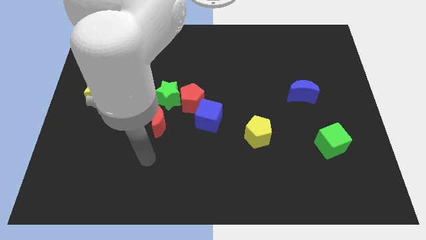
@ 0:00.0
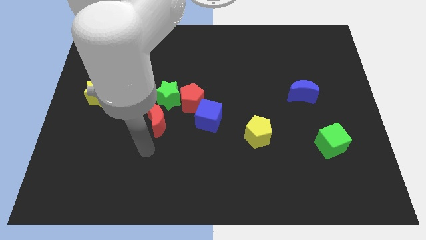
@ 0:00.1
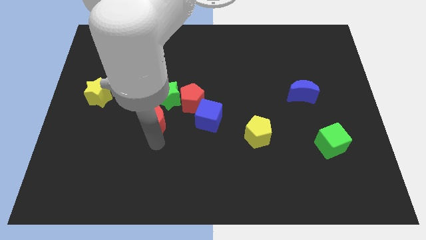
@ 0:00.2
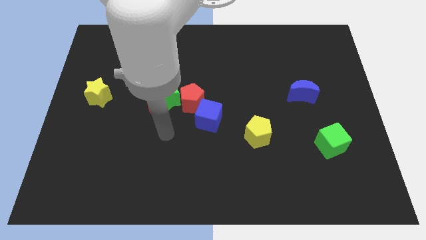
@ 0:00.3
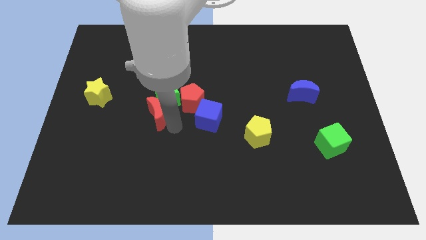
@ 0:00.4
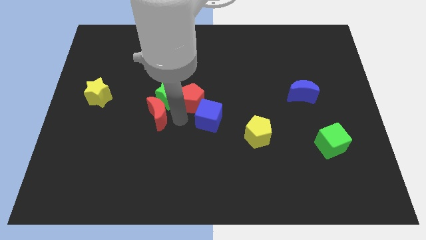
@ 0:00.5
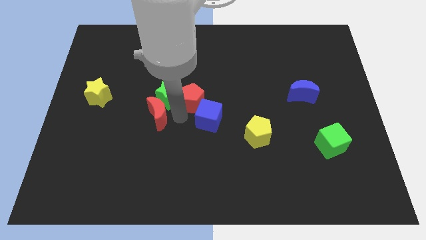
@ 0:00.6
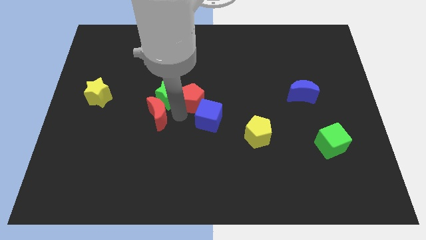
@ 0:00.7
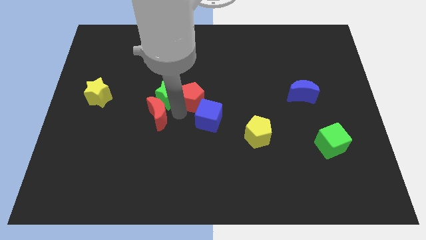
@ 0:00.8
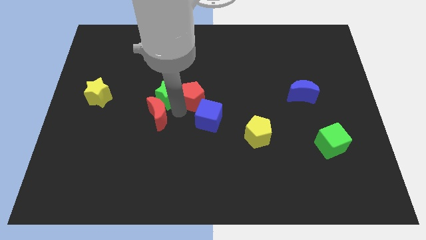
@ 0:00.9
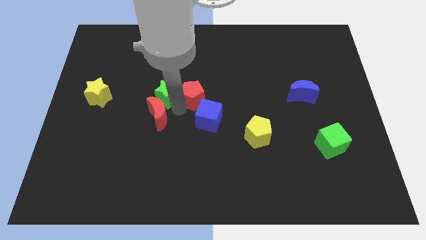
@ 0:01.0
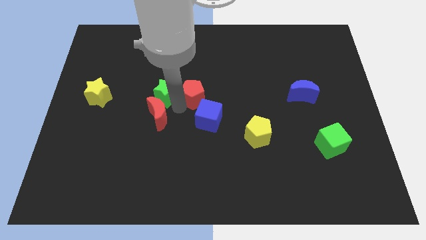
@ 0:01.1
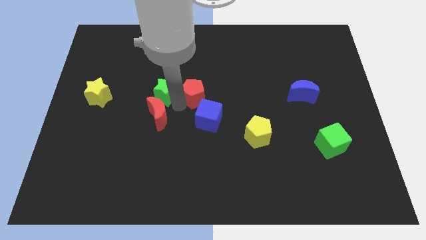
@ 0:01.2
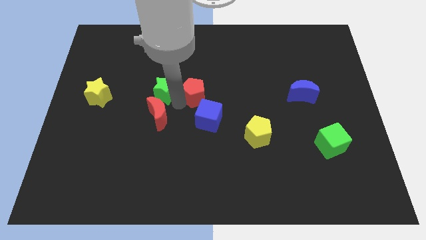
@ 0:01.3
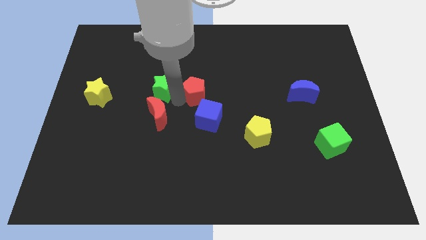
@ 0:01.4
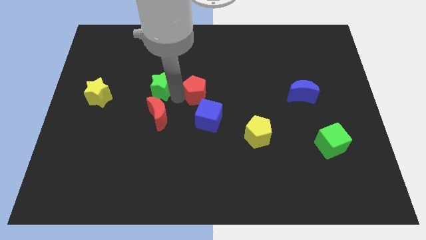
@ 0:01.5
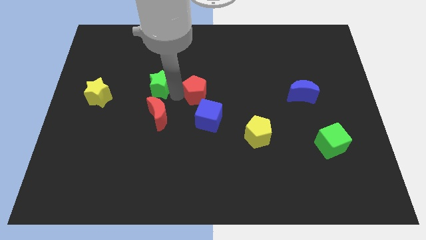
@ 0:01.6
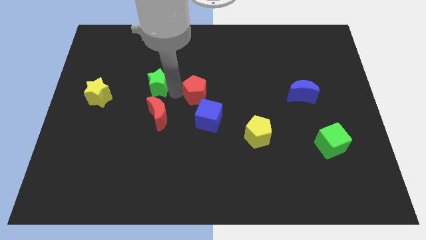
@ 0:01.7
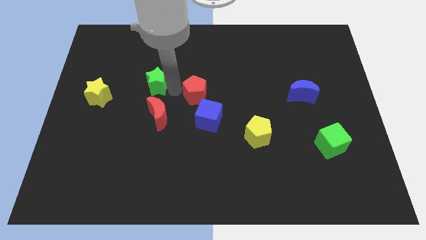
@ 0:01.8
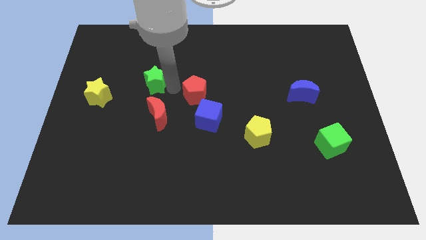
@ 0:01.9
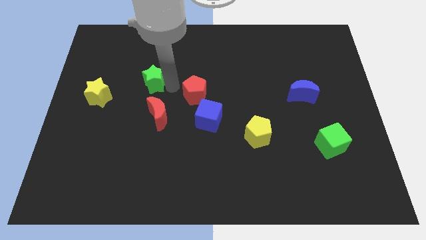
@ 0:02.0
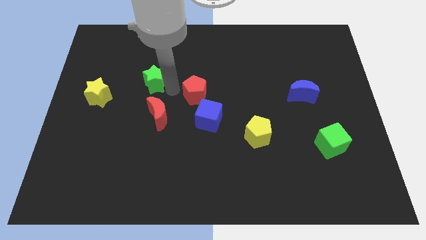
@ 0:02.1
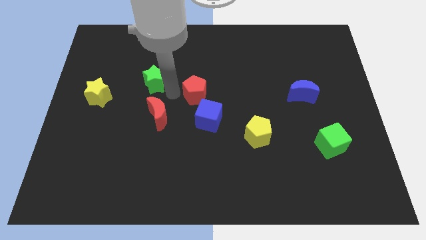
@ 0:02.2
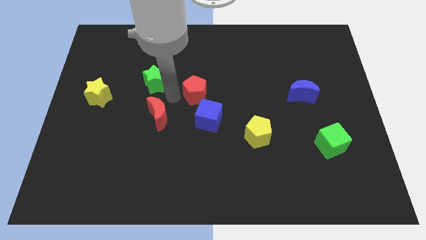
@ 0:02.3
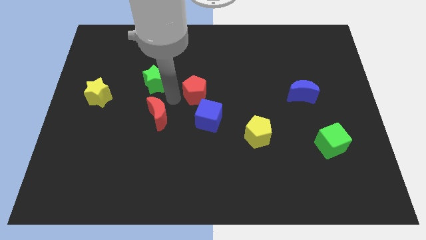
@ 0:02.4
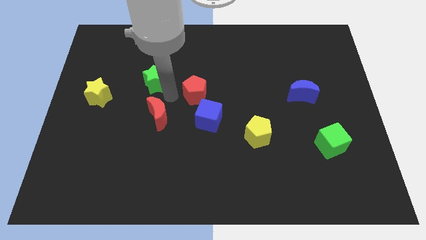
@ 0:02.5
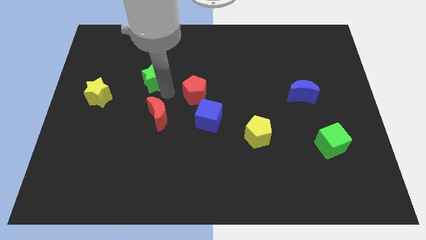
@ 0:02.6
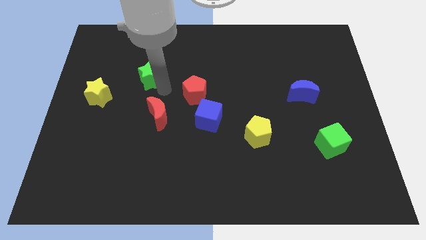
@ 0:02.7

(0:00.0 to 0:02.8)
pull the green star apart from the red pentagon and red moon

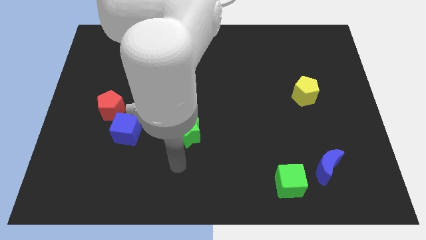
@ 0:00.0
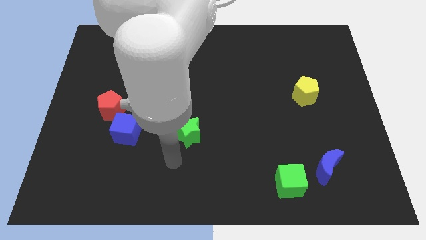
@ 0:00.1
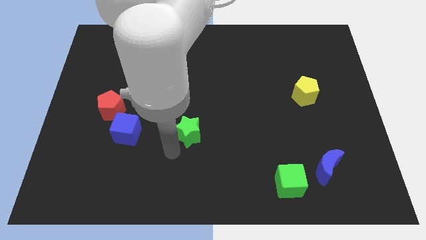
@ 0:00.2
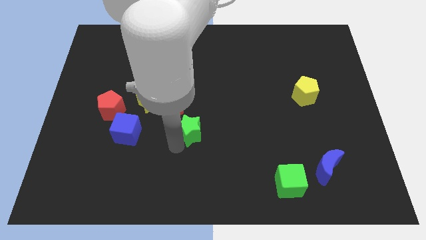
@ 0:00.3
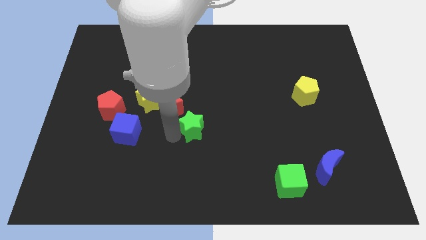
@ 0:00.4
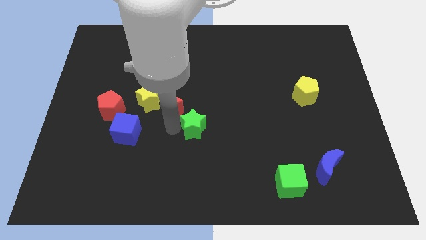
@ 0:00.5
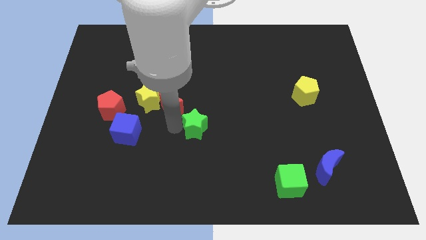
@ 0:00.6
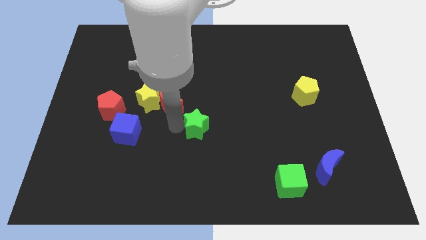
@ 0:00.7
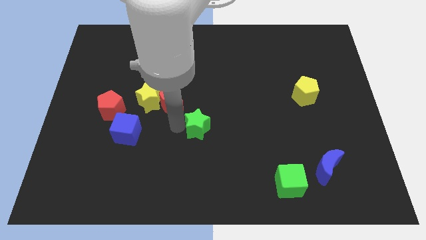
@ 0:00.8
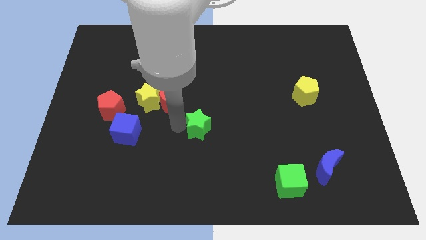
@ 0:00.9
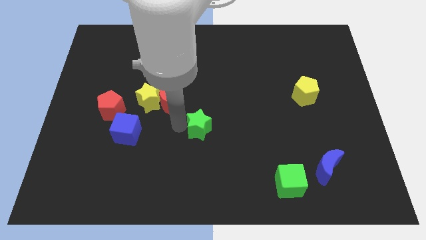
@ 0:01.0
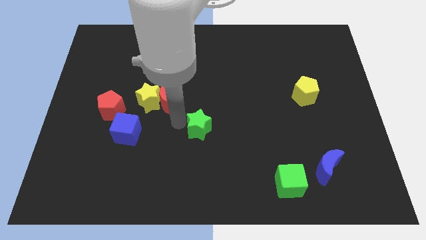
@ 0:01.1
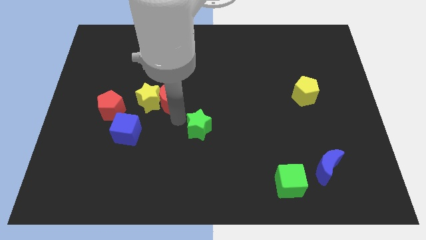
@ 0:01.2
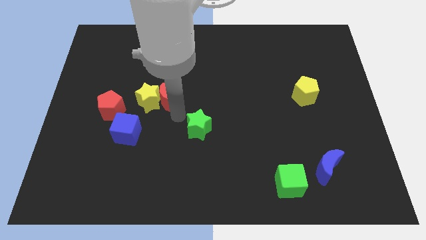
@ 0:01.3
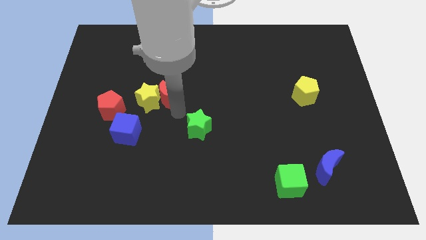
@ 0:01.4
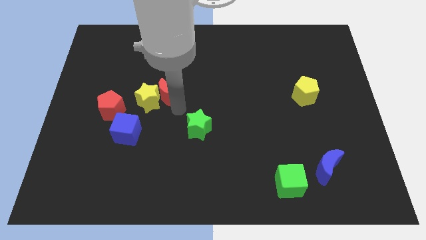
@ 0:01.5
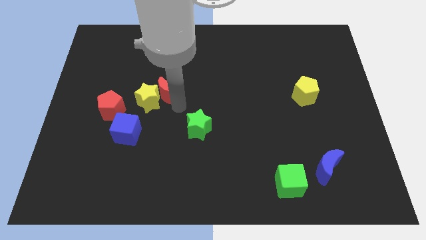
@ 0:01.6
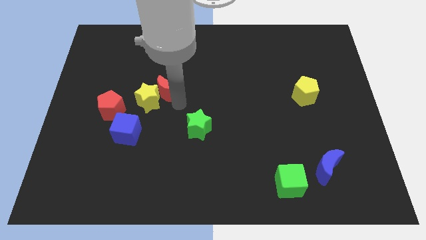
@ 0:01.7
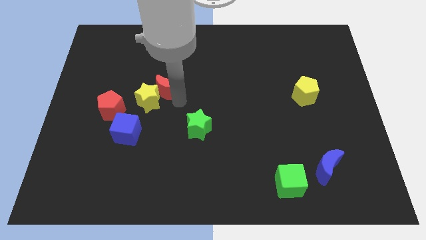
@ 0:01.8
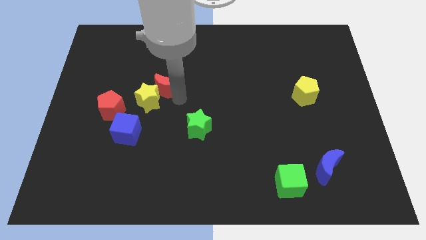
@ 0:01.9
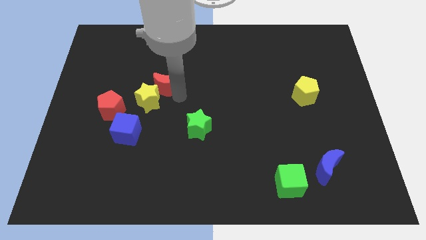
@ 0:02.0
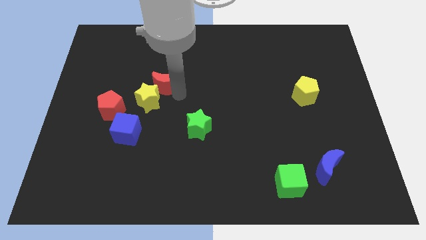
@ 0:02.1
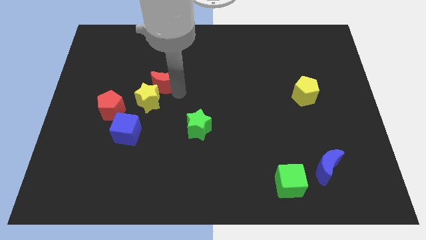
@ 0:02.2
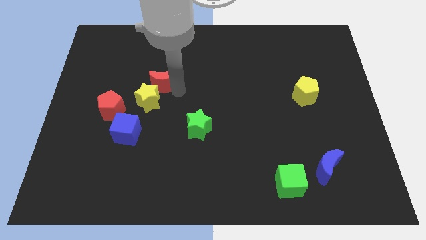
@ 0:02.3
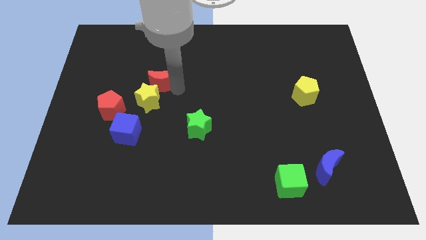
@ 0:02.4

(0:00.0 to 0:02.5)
move the red moon away from the yellow star and green star

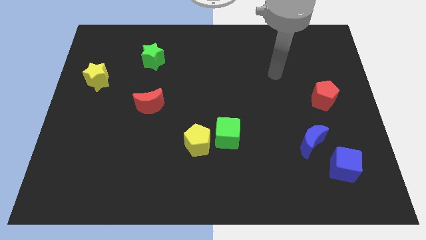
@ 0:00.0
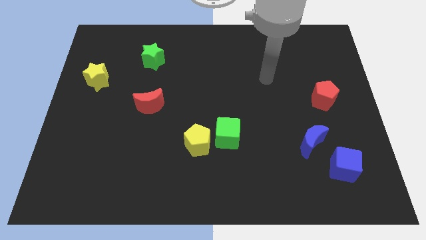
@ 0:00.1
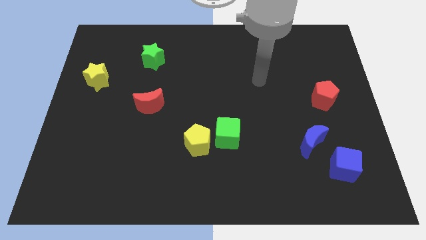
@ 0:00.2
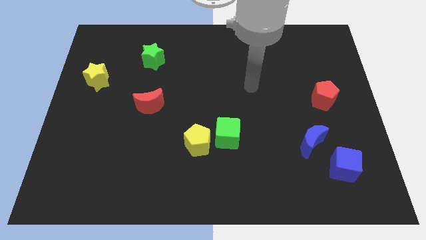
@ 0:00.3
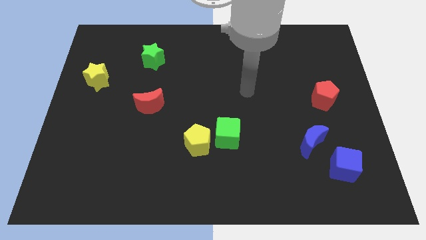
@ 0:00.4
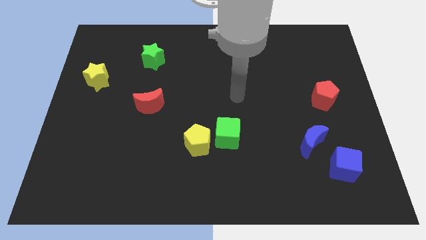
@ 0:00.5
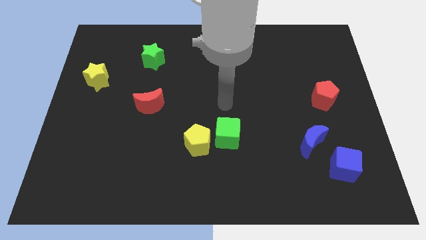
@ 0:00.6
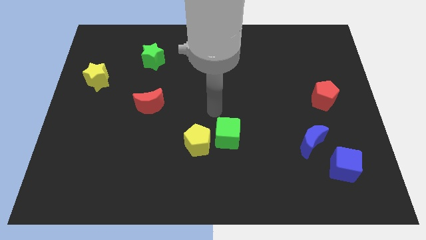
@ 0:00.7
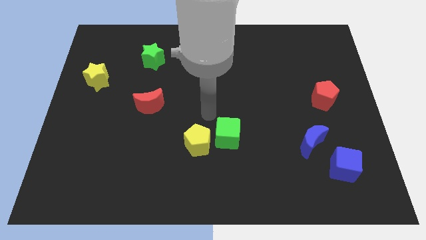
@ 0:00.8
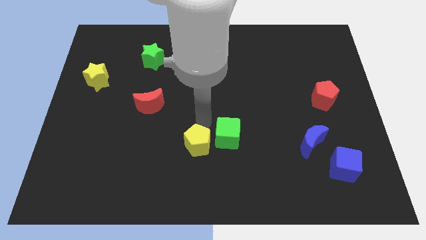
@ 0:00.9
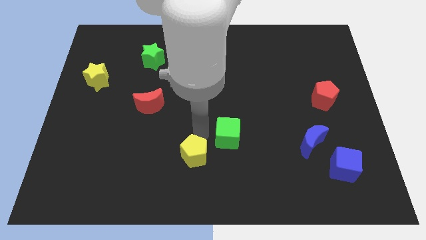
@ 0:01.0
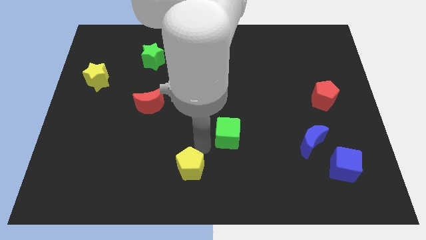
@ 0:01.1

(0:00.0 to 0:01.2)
separate the green cube from the yellow pentagon

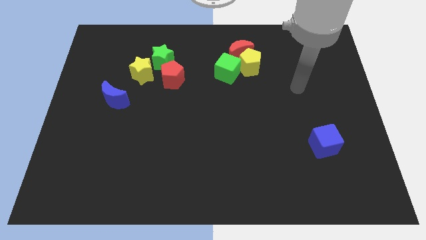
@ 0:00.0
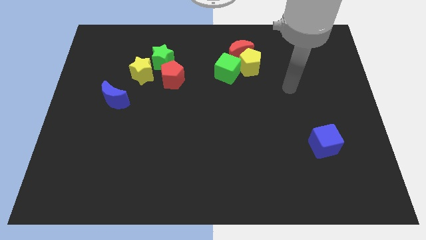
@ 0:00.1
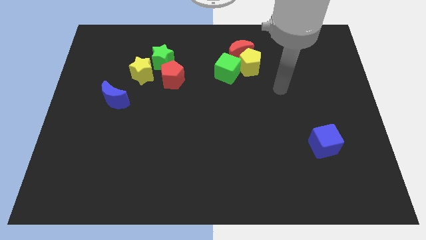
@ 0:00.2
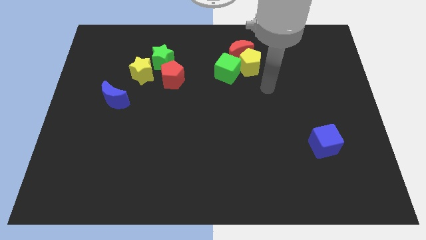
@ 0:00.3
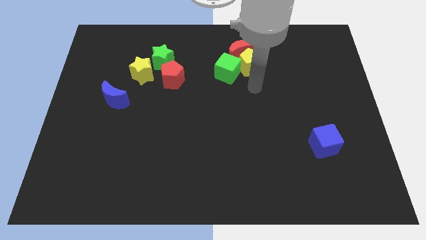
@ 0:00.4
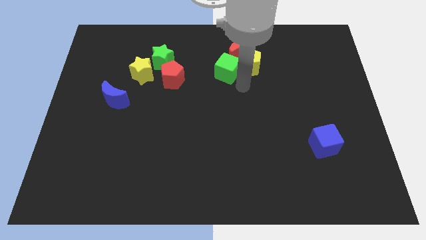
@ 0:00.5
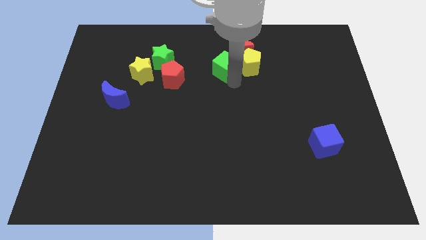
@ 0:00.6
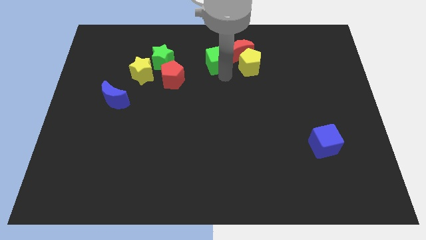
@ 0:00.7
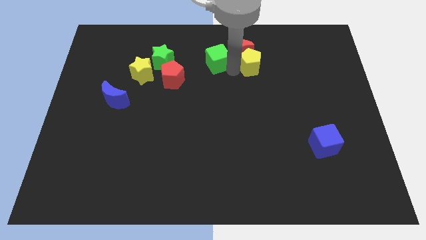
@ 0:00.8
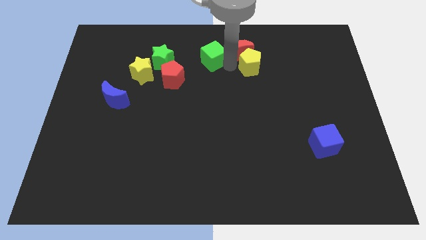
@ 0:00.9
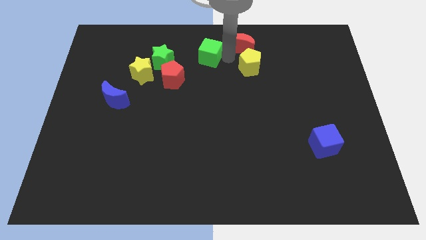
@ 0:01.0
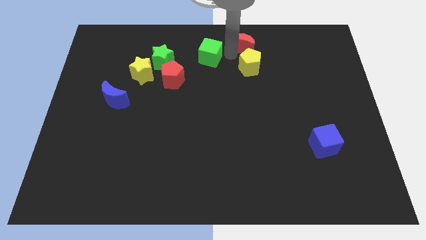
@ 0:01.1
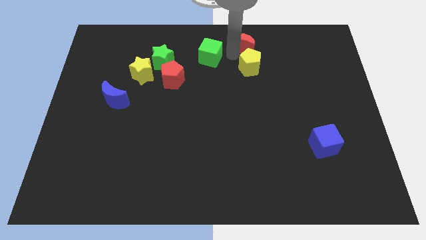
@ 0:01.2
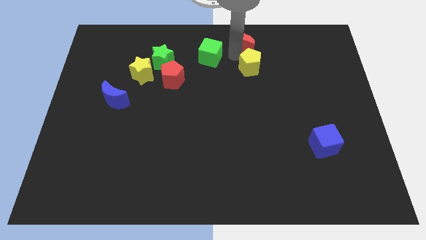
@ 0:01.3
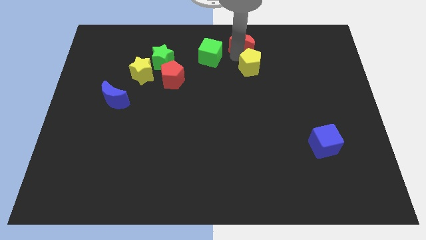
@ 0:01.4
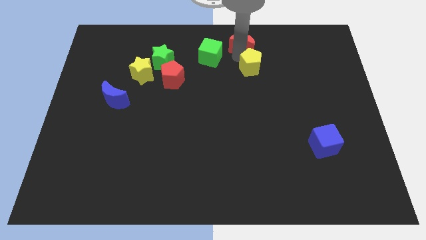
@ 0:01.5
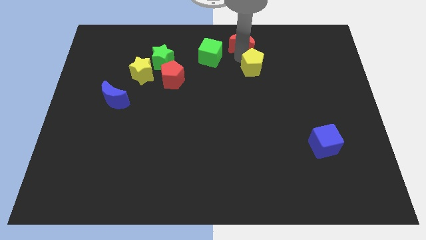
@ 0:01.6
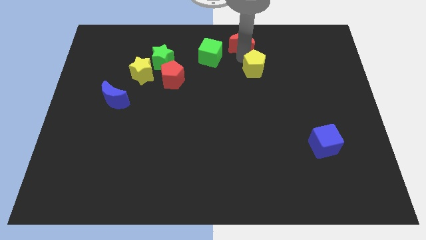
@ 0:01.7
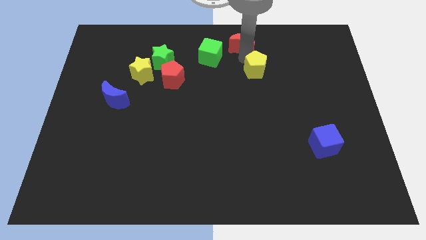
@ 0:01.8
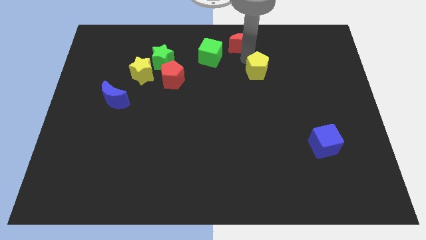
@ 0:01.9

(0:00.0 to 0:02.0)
separate the yellow pentagon from the red moon and green cube

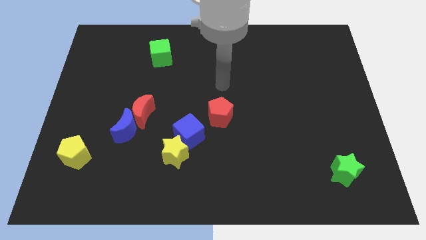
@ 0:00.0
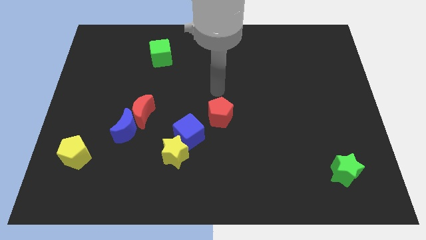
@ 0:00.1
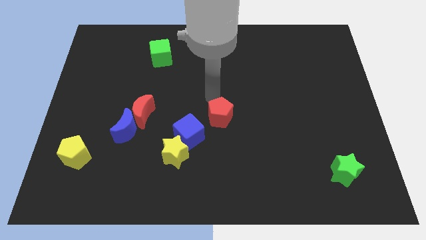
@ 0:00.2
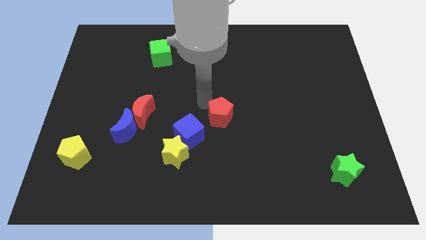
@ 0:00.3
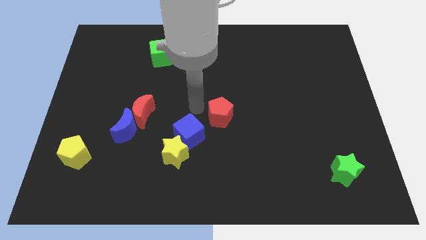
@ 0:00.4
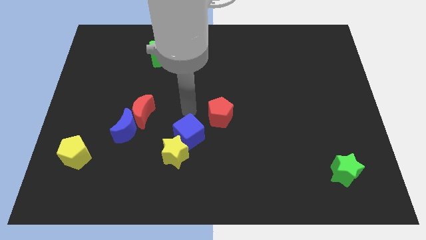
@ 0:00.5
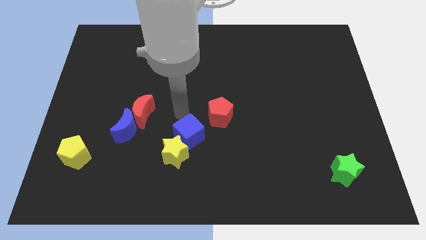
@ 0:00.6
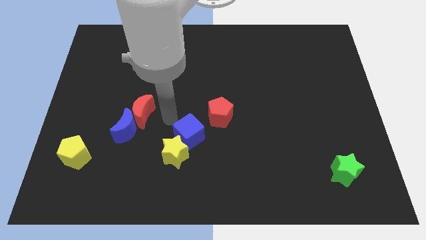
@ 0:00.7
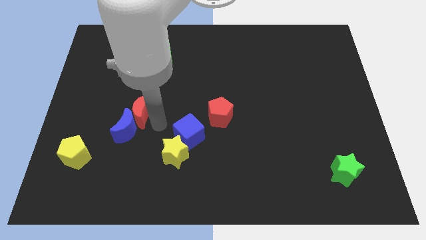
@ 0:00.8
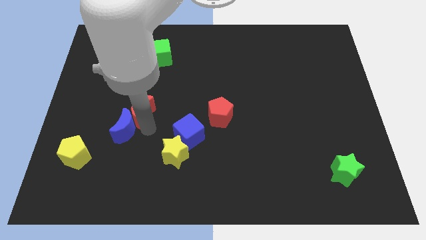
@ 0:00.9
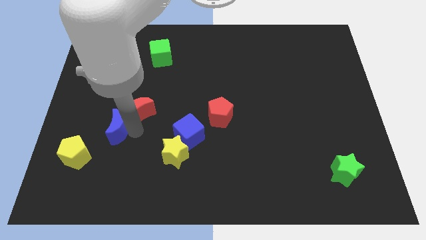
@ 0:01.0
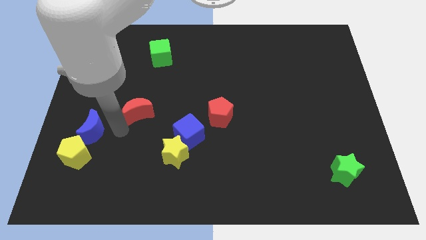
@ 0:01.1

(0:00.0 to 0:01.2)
separate the red moon from the blue moon
